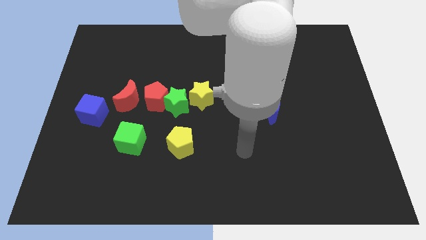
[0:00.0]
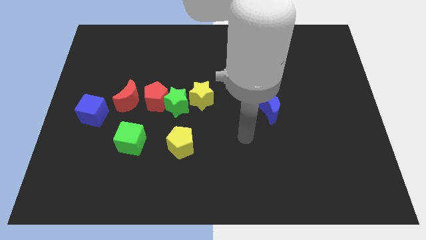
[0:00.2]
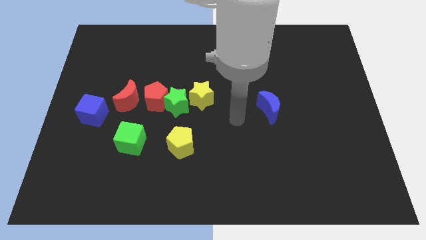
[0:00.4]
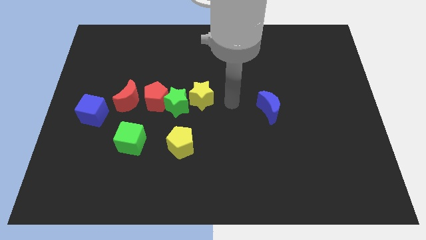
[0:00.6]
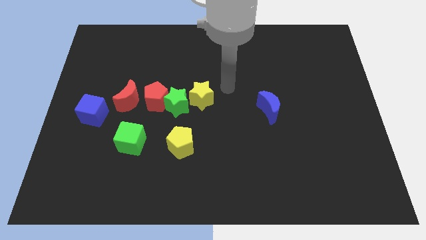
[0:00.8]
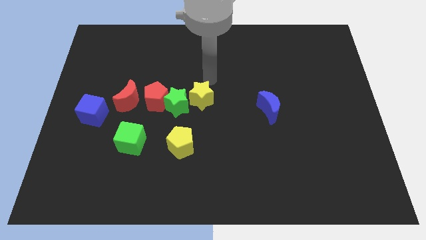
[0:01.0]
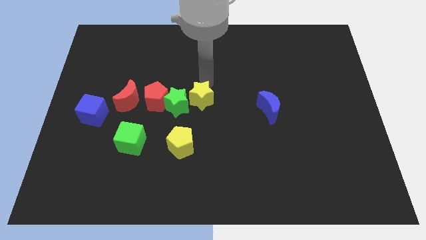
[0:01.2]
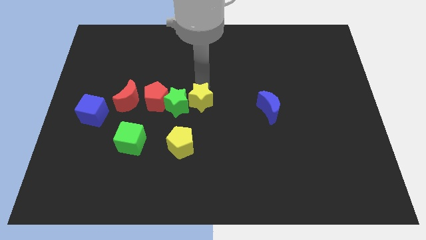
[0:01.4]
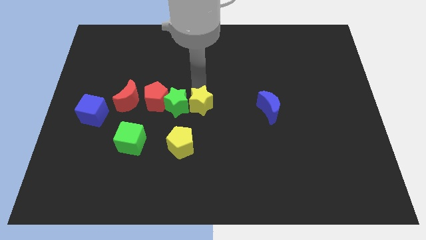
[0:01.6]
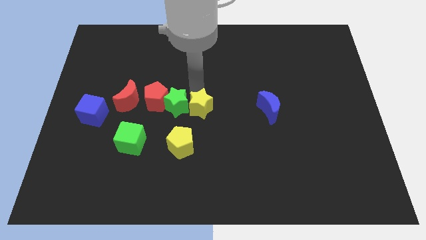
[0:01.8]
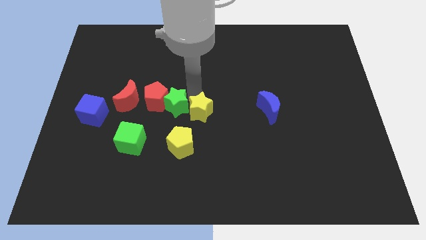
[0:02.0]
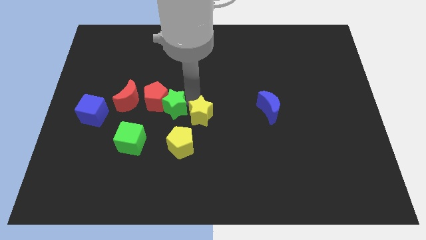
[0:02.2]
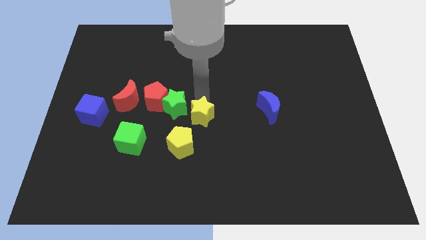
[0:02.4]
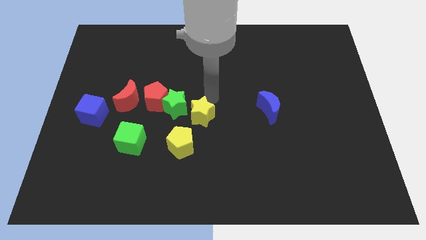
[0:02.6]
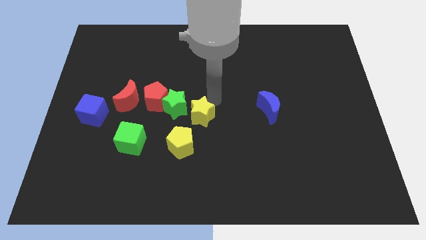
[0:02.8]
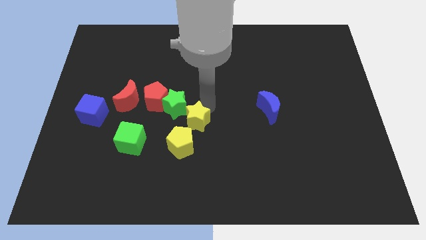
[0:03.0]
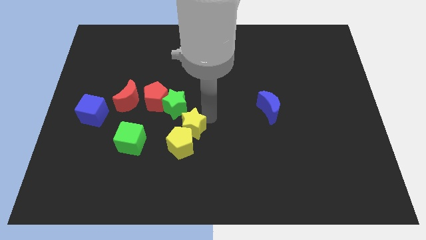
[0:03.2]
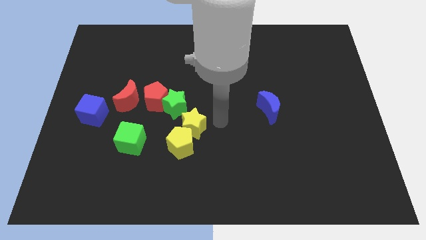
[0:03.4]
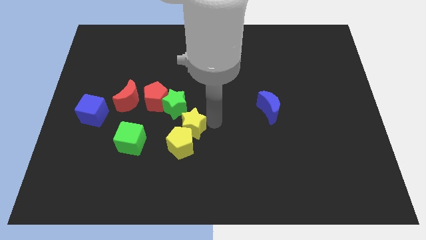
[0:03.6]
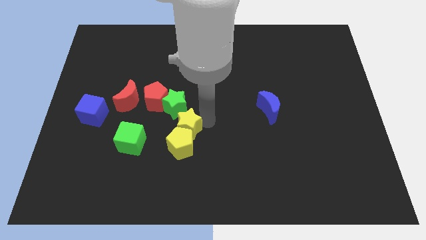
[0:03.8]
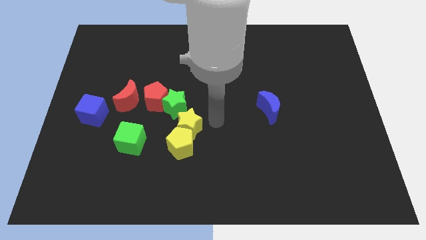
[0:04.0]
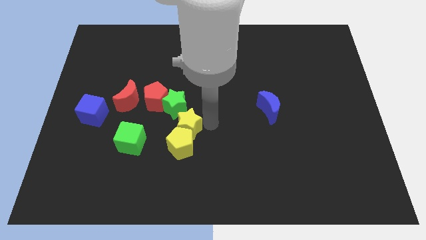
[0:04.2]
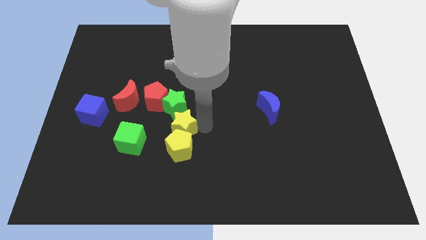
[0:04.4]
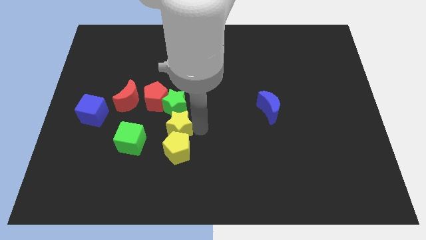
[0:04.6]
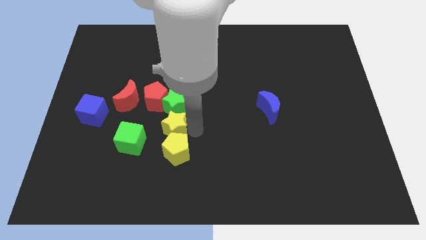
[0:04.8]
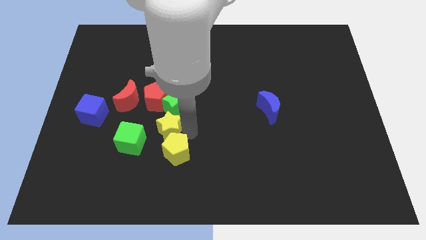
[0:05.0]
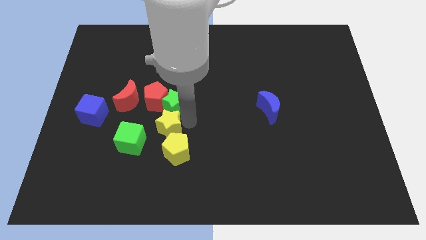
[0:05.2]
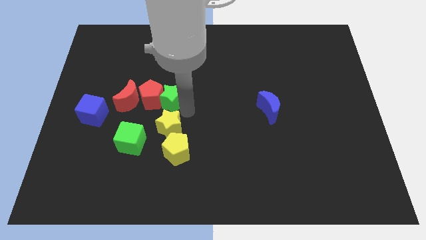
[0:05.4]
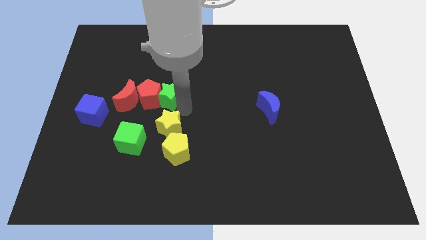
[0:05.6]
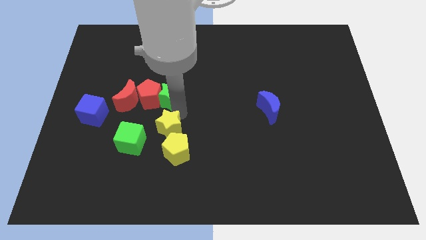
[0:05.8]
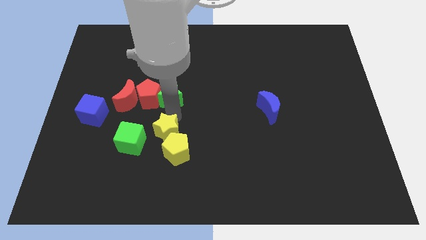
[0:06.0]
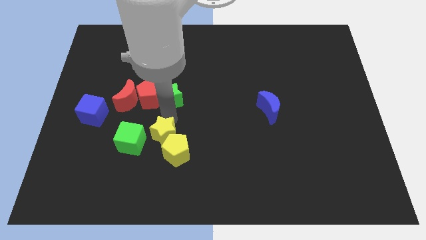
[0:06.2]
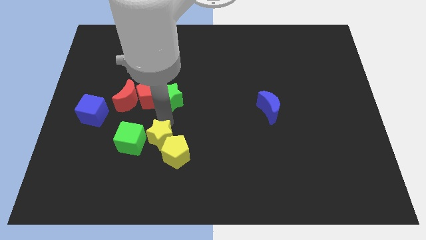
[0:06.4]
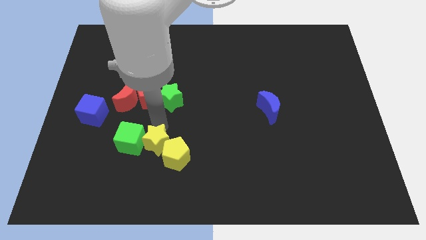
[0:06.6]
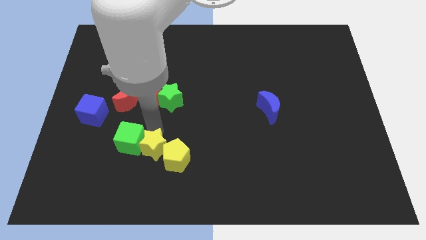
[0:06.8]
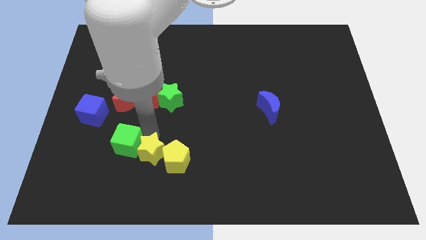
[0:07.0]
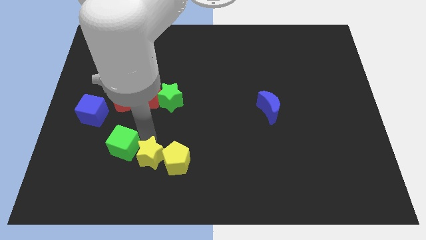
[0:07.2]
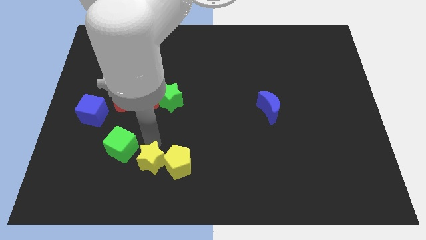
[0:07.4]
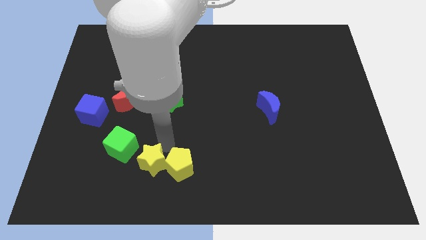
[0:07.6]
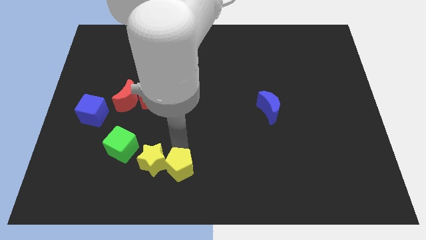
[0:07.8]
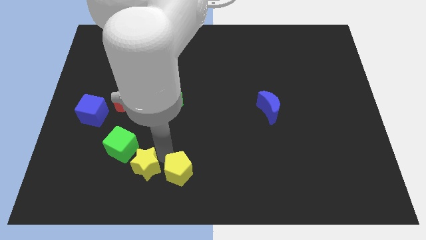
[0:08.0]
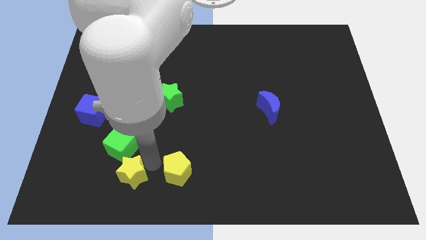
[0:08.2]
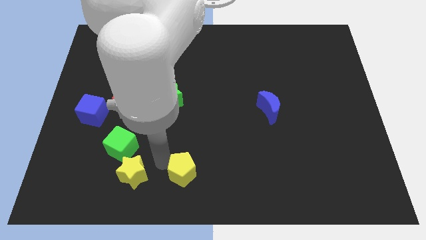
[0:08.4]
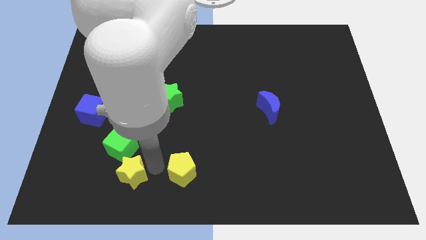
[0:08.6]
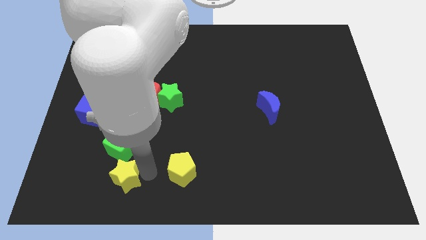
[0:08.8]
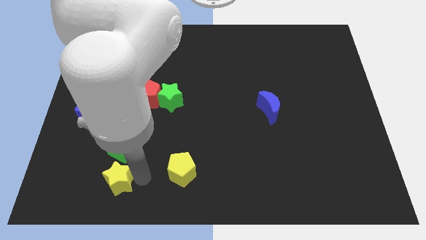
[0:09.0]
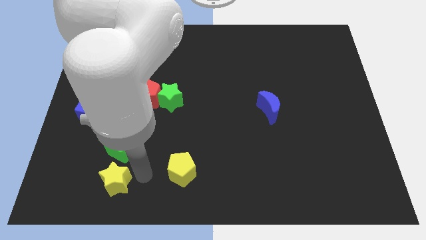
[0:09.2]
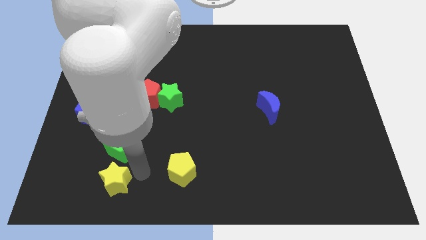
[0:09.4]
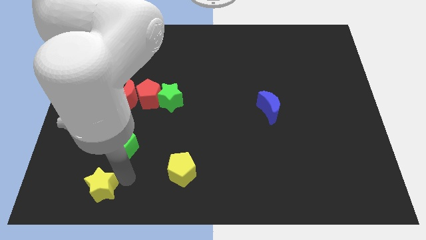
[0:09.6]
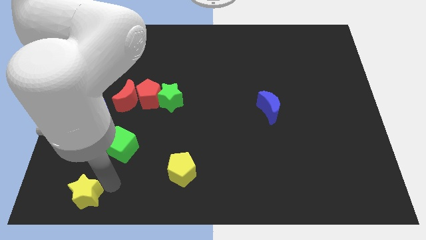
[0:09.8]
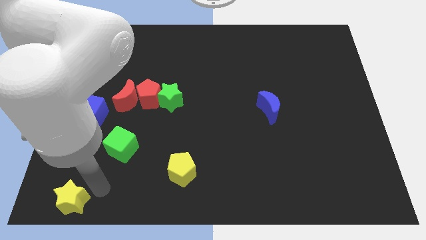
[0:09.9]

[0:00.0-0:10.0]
move the yellow star to the lower left corner

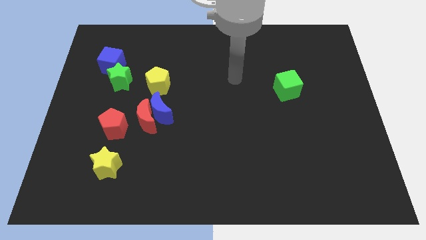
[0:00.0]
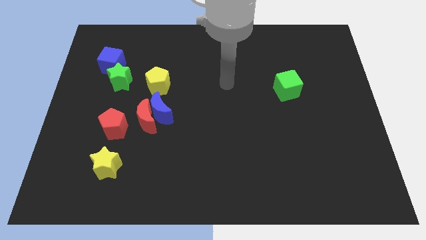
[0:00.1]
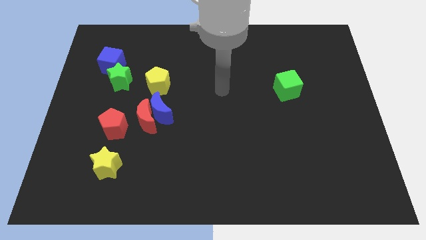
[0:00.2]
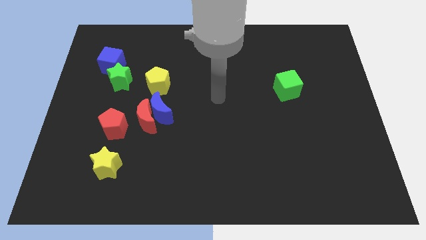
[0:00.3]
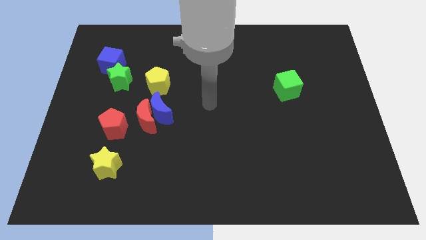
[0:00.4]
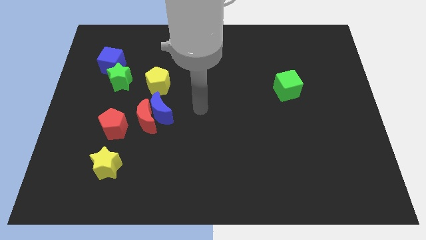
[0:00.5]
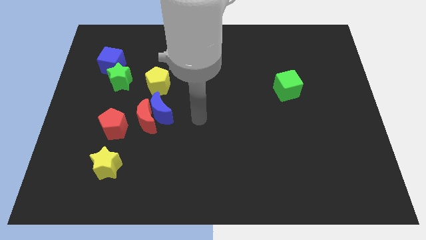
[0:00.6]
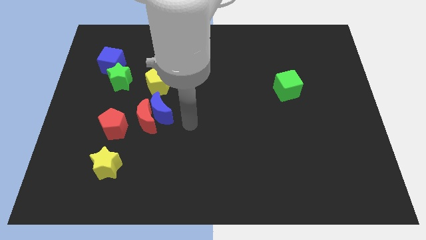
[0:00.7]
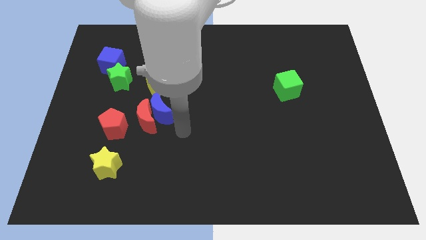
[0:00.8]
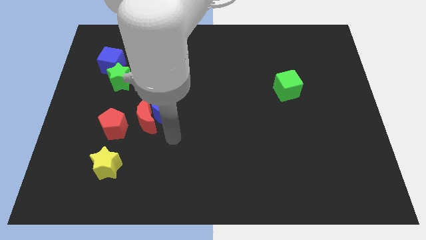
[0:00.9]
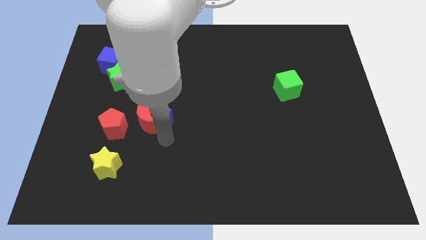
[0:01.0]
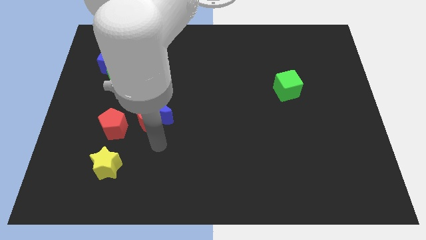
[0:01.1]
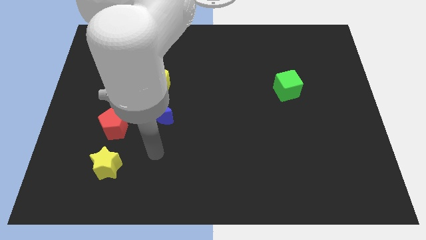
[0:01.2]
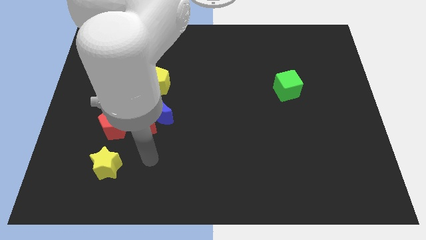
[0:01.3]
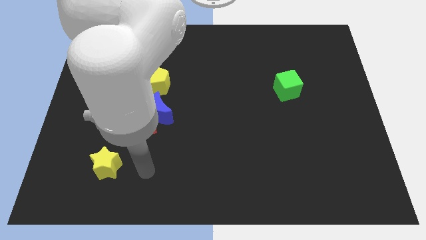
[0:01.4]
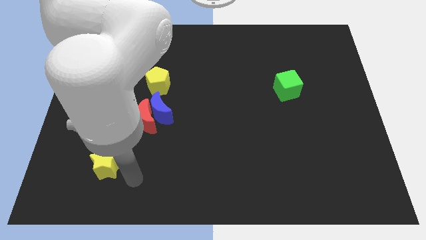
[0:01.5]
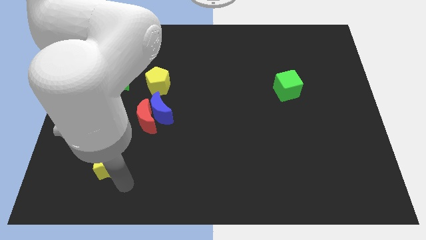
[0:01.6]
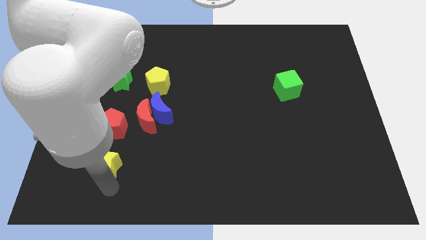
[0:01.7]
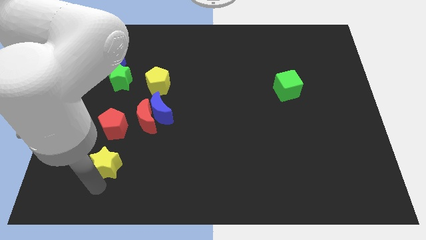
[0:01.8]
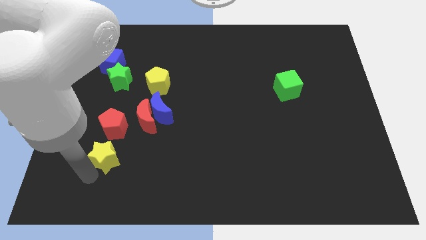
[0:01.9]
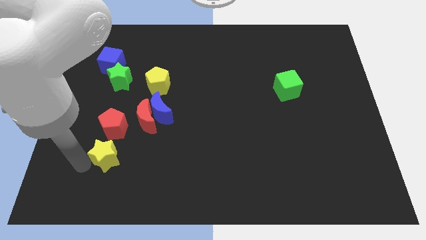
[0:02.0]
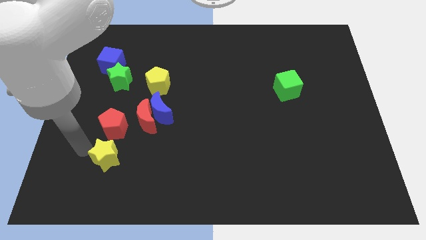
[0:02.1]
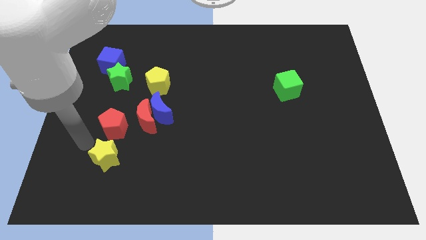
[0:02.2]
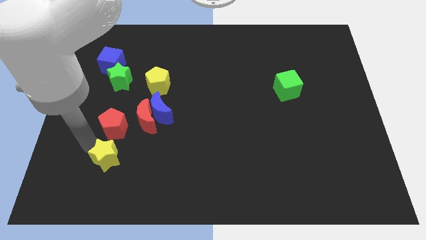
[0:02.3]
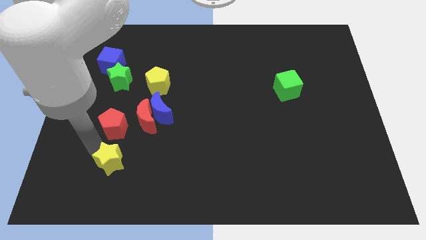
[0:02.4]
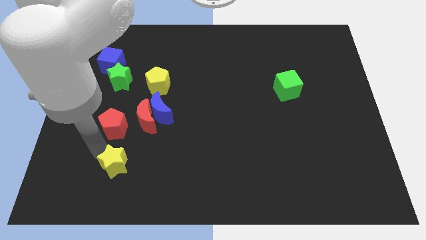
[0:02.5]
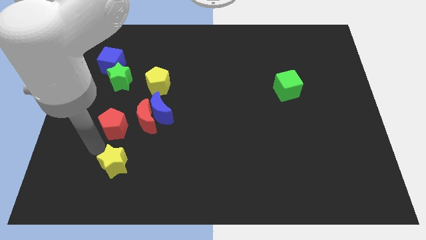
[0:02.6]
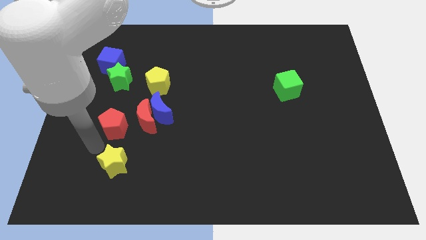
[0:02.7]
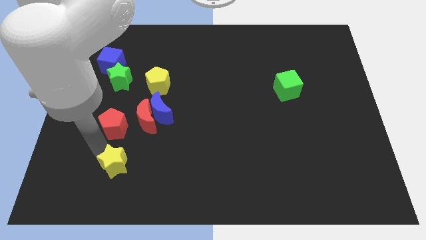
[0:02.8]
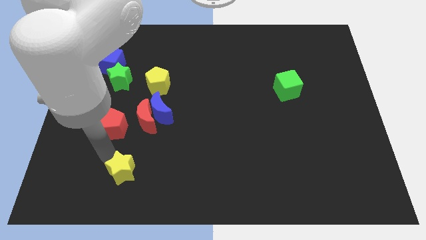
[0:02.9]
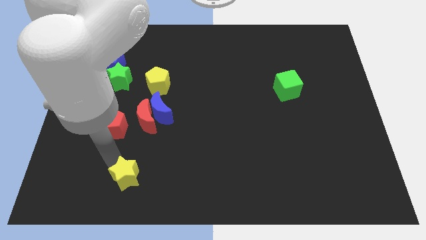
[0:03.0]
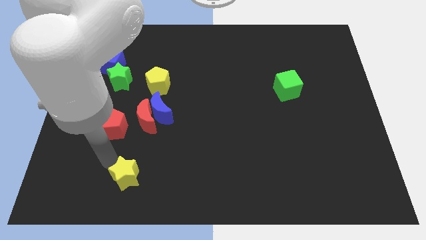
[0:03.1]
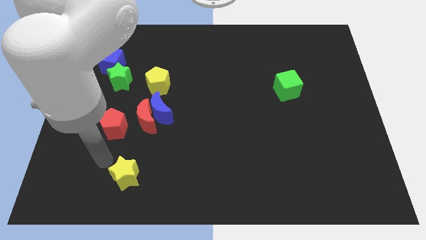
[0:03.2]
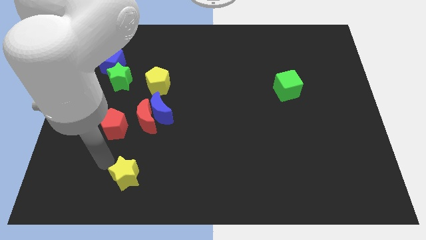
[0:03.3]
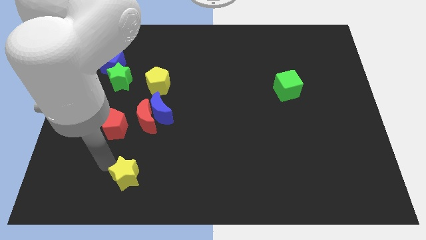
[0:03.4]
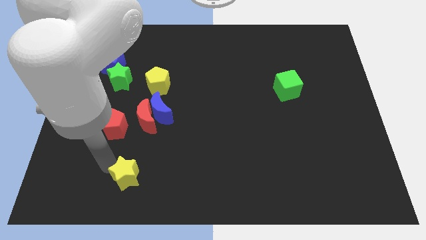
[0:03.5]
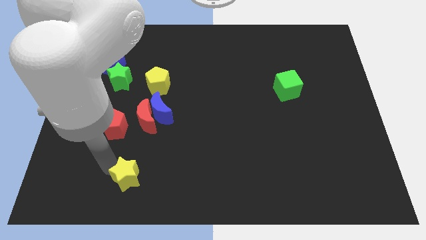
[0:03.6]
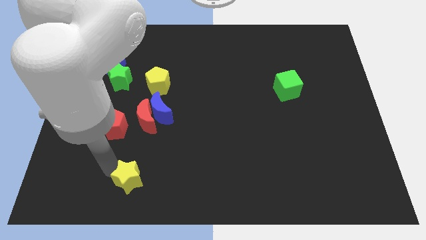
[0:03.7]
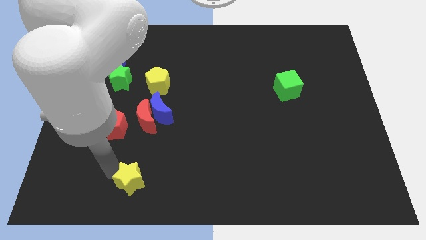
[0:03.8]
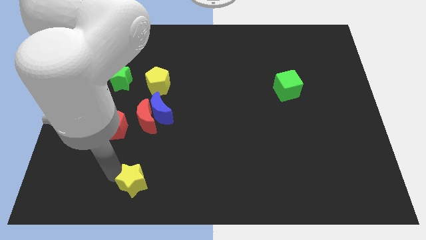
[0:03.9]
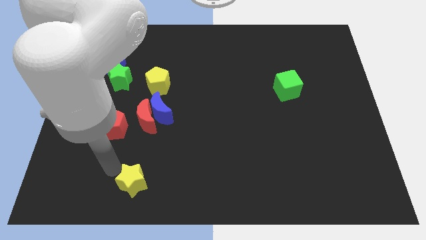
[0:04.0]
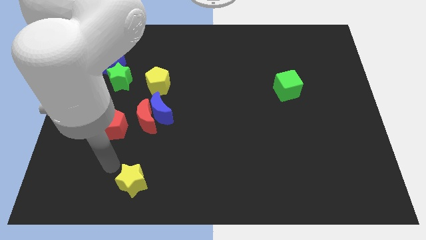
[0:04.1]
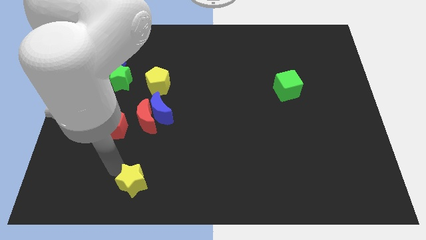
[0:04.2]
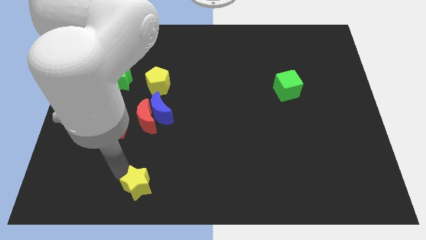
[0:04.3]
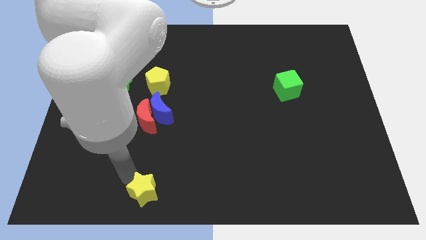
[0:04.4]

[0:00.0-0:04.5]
push the yellow star to the bottom side
